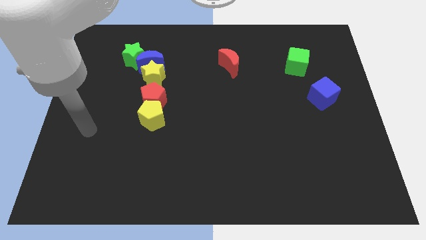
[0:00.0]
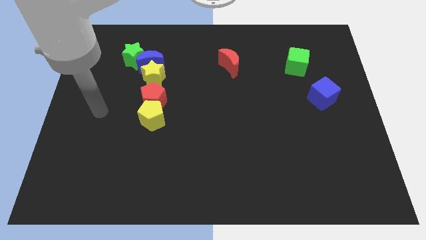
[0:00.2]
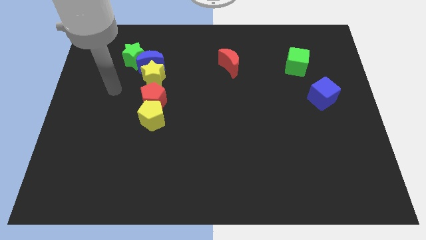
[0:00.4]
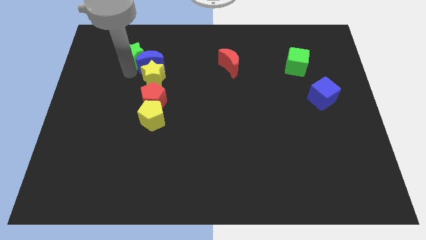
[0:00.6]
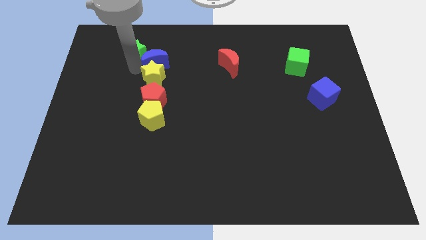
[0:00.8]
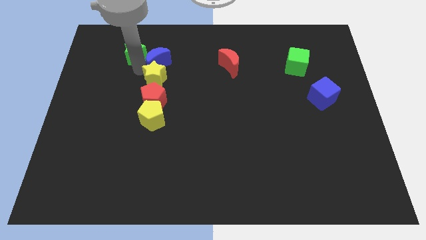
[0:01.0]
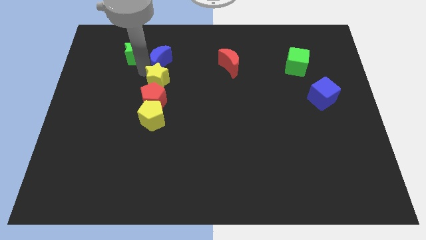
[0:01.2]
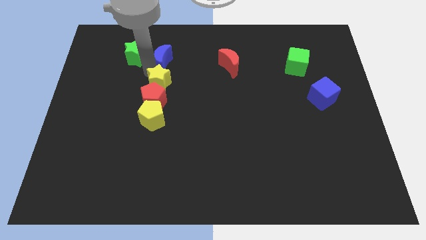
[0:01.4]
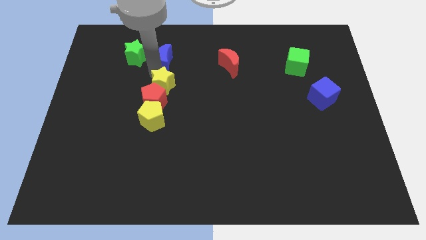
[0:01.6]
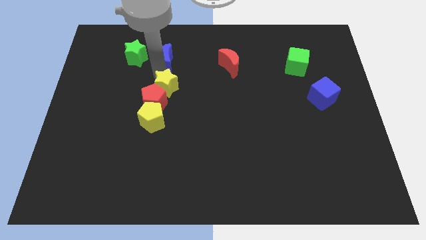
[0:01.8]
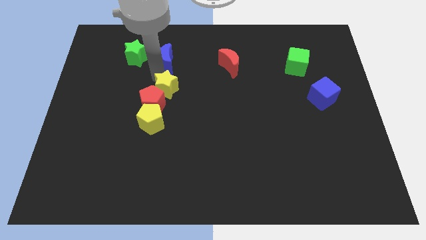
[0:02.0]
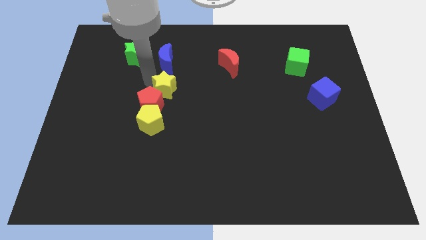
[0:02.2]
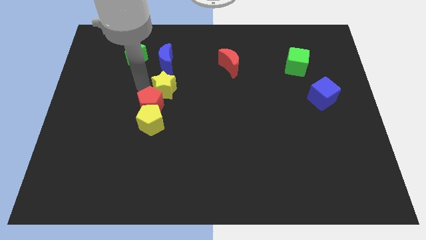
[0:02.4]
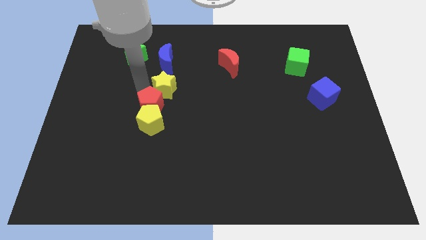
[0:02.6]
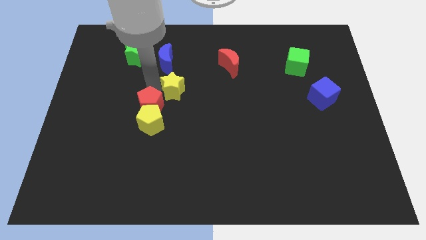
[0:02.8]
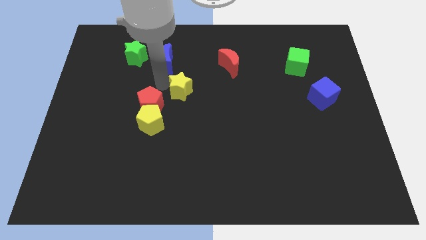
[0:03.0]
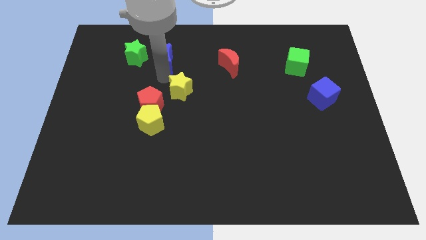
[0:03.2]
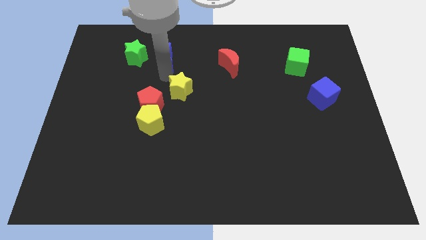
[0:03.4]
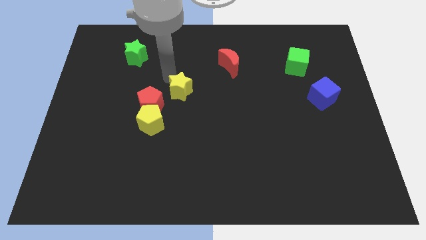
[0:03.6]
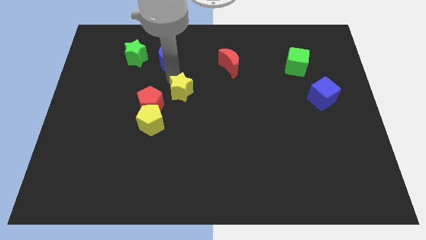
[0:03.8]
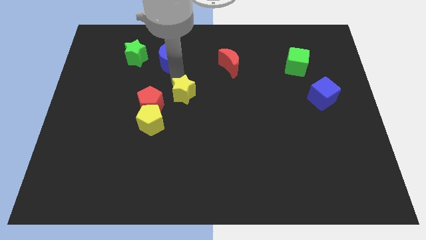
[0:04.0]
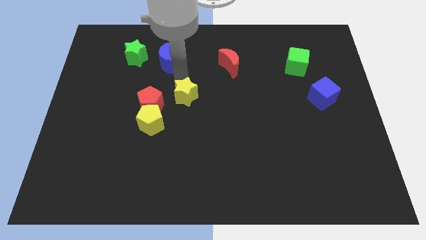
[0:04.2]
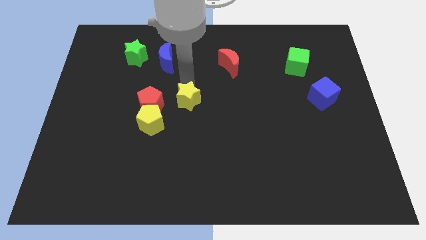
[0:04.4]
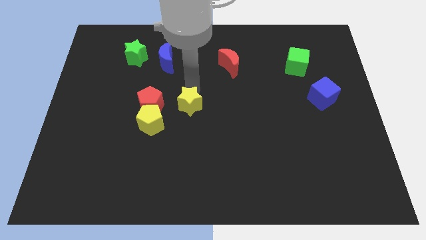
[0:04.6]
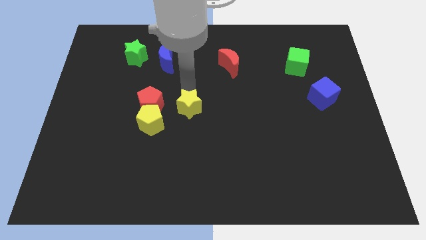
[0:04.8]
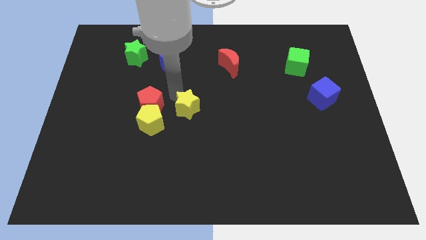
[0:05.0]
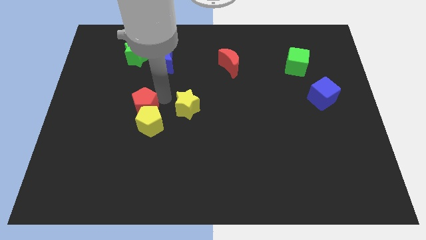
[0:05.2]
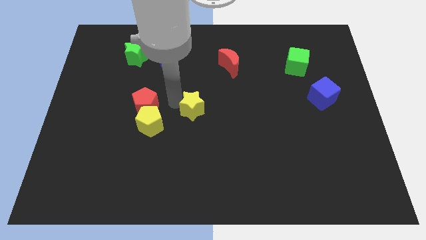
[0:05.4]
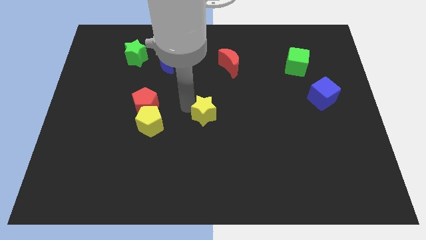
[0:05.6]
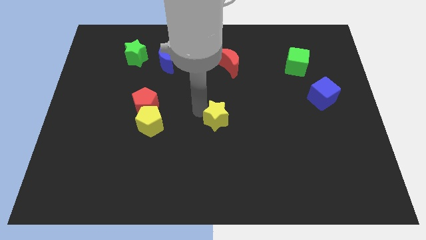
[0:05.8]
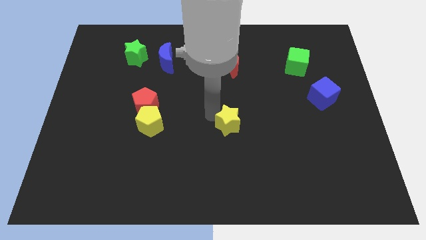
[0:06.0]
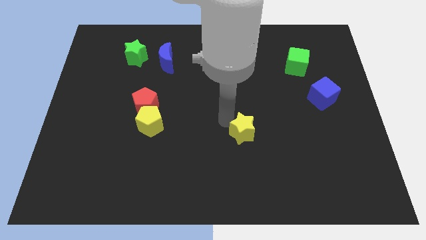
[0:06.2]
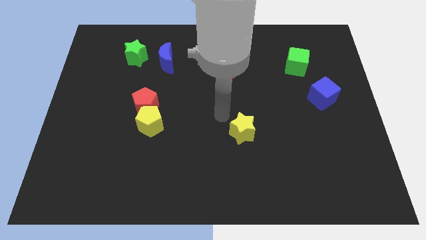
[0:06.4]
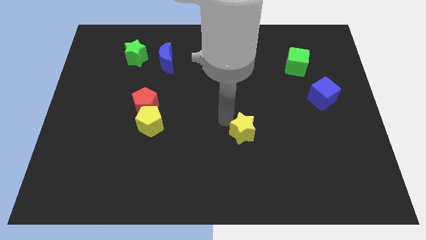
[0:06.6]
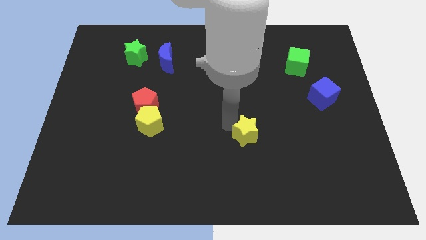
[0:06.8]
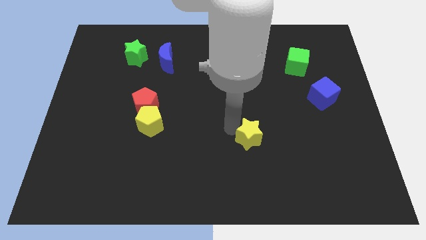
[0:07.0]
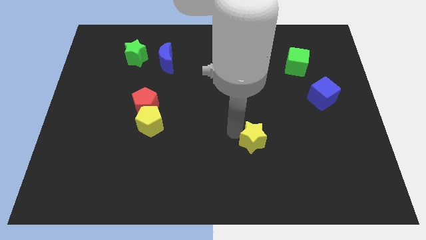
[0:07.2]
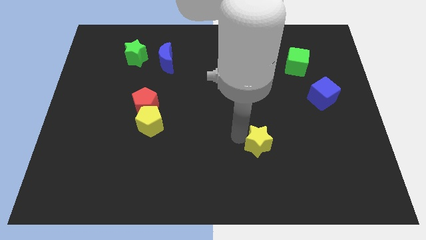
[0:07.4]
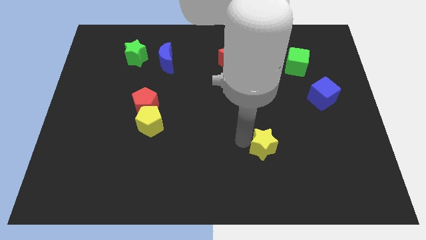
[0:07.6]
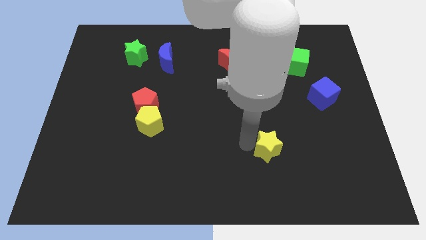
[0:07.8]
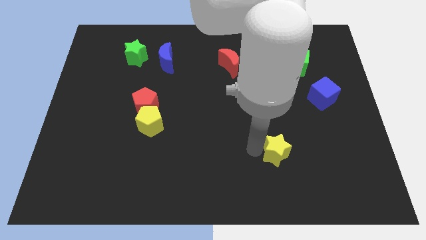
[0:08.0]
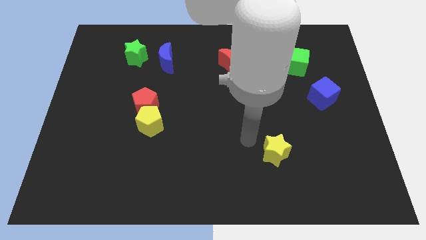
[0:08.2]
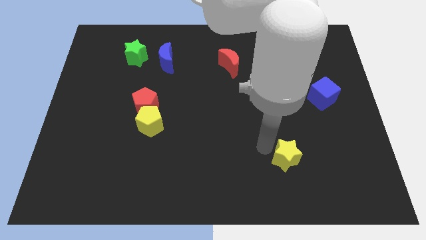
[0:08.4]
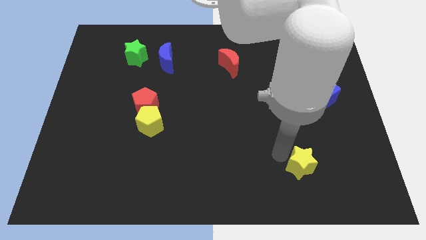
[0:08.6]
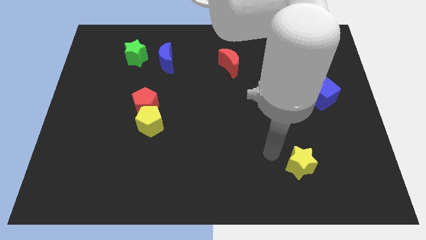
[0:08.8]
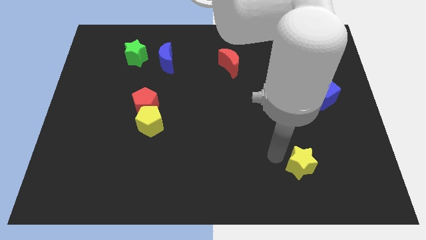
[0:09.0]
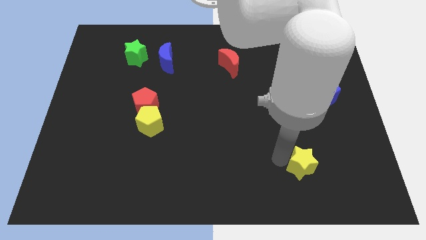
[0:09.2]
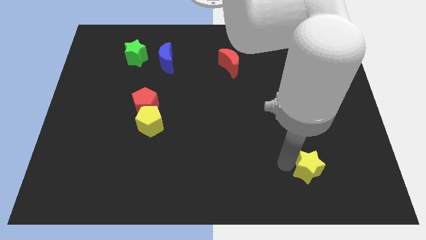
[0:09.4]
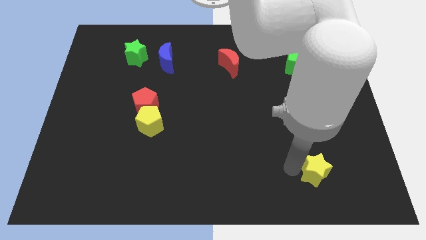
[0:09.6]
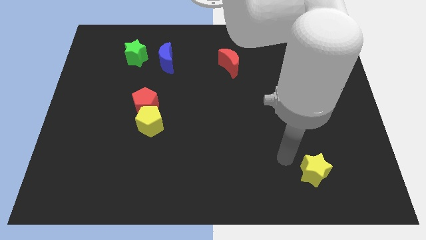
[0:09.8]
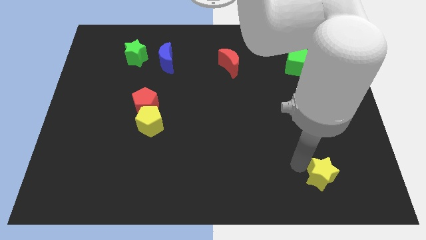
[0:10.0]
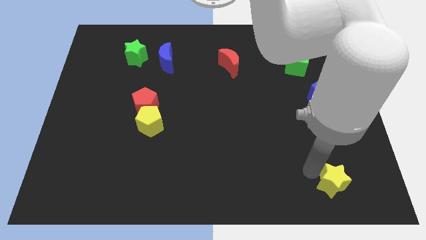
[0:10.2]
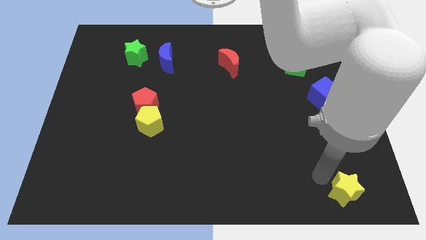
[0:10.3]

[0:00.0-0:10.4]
put the yellow star to the bottom right

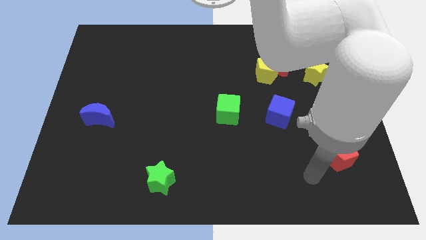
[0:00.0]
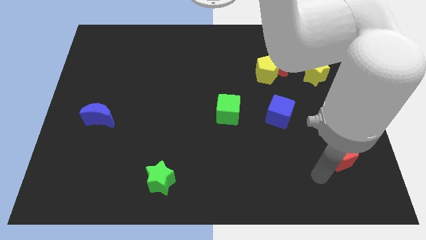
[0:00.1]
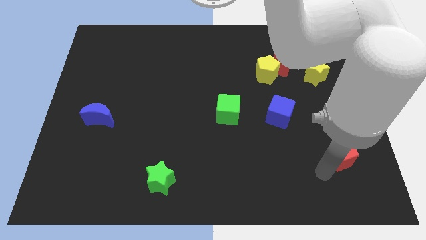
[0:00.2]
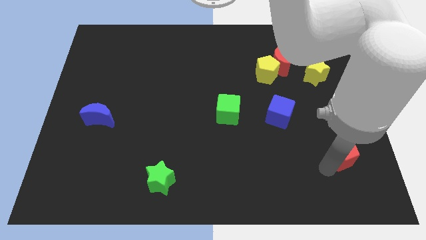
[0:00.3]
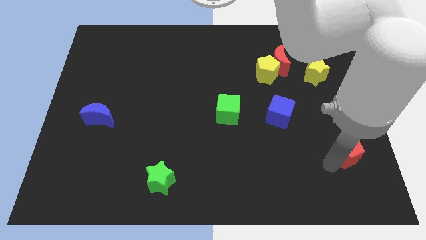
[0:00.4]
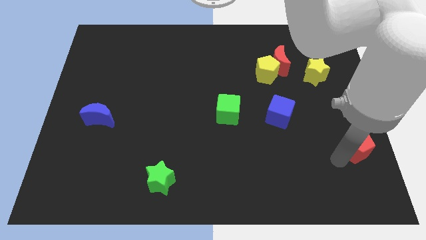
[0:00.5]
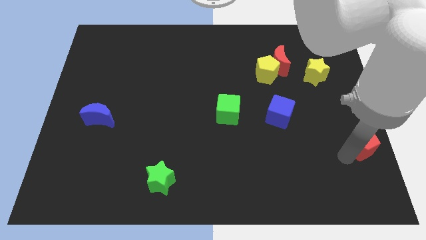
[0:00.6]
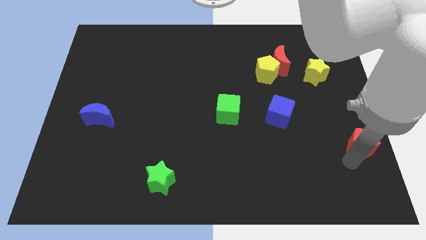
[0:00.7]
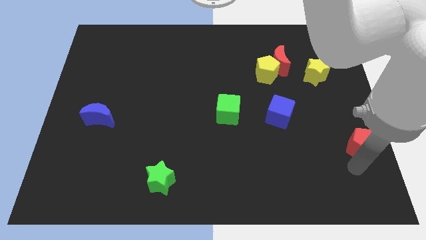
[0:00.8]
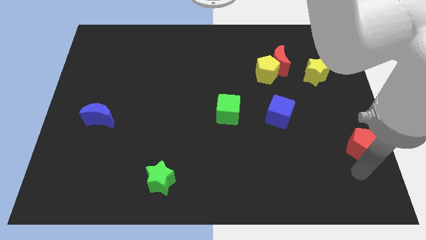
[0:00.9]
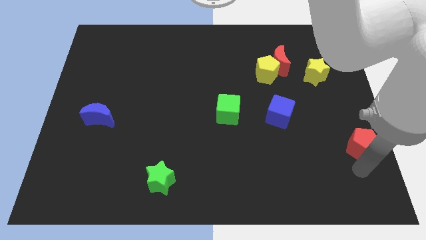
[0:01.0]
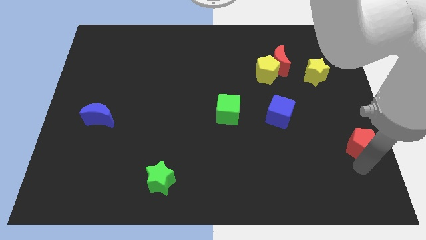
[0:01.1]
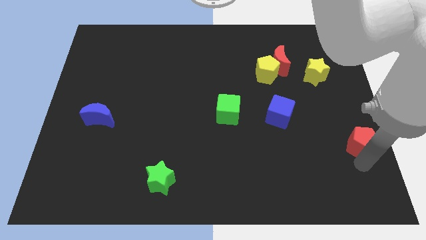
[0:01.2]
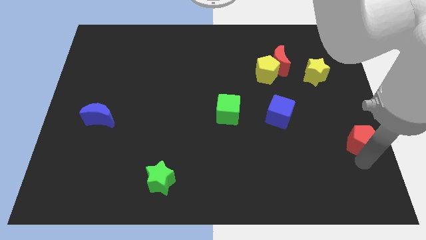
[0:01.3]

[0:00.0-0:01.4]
slide the red pentagon to the right side
